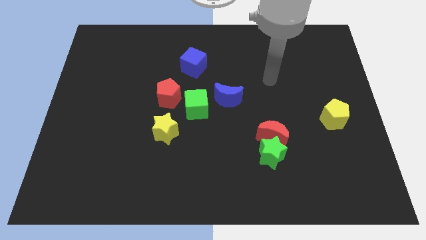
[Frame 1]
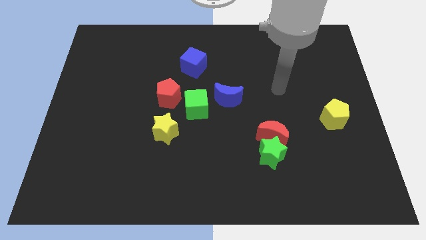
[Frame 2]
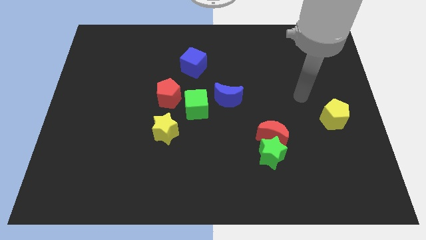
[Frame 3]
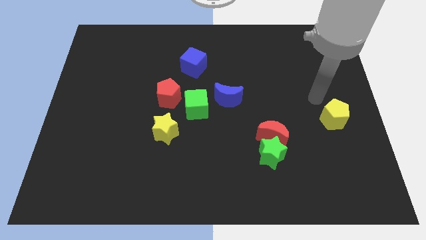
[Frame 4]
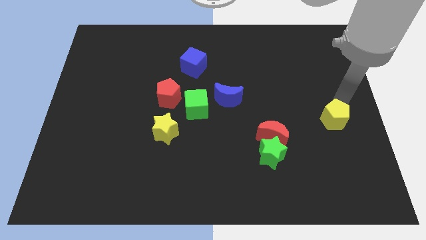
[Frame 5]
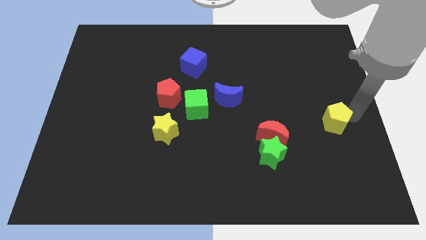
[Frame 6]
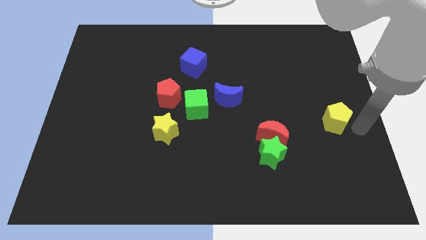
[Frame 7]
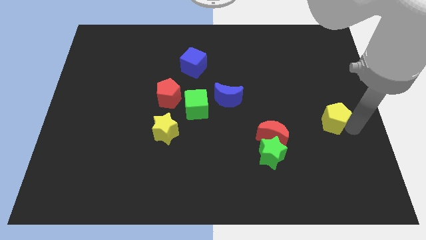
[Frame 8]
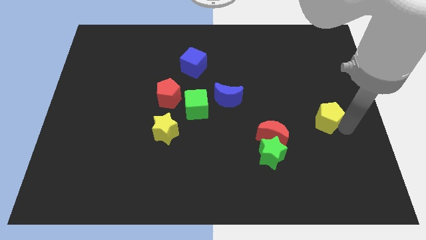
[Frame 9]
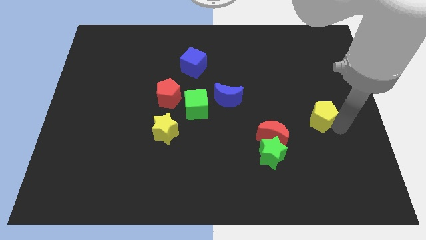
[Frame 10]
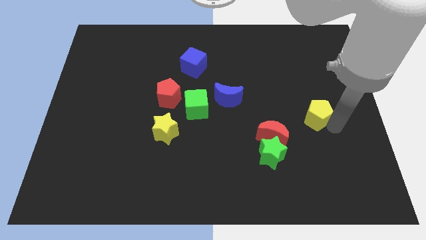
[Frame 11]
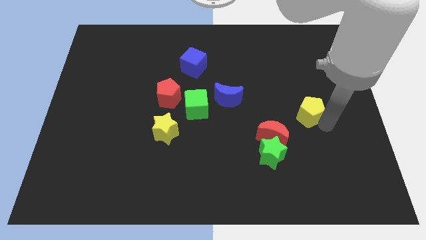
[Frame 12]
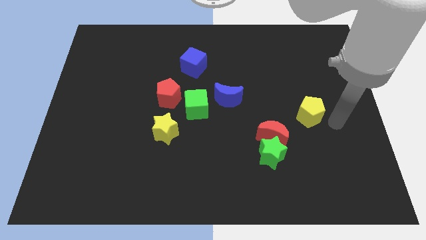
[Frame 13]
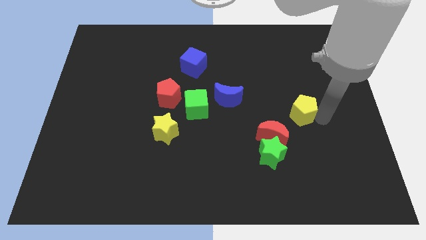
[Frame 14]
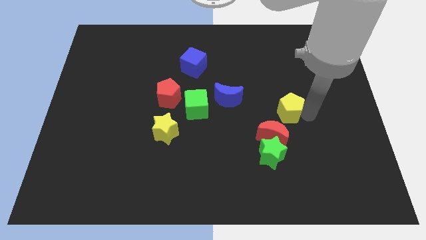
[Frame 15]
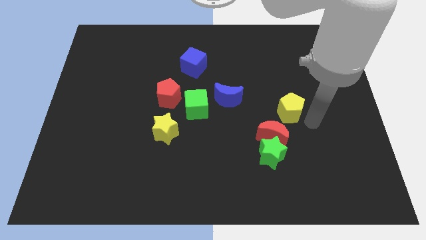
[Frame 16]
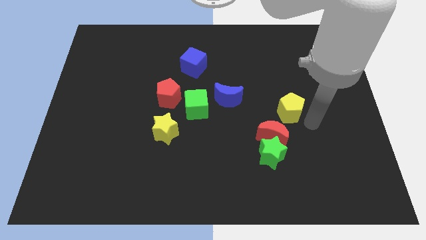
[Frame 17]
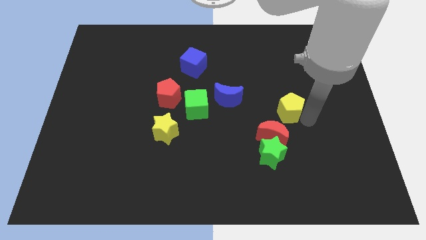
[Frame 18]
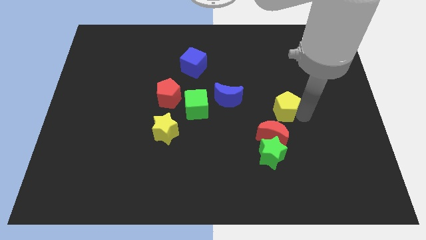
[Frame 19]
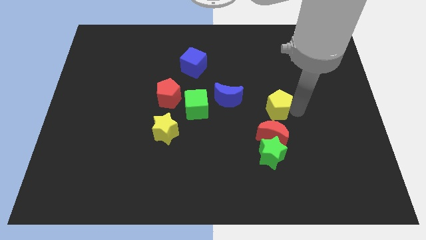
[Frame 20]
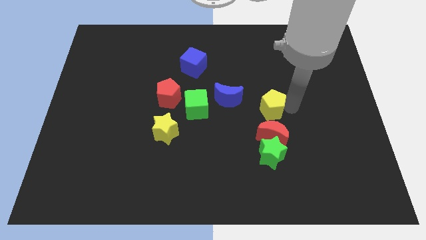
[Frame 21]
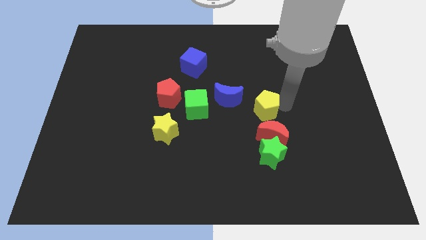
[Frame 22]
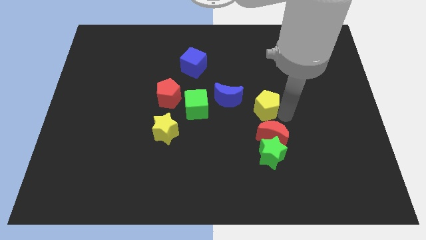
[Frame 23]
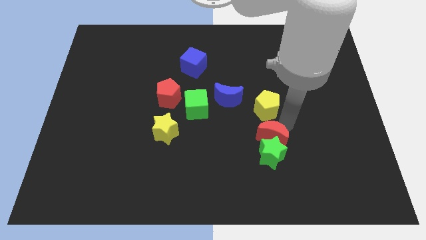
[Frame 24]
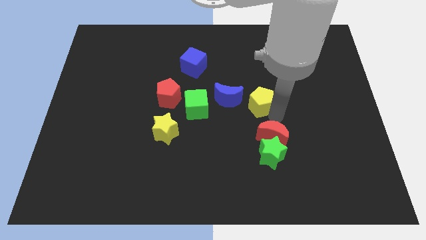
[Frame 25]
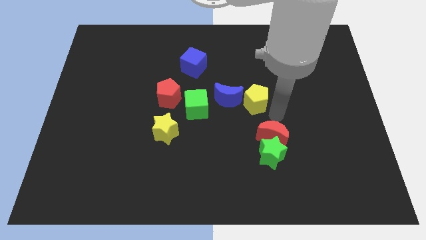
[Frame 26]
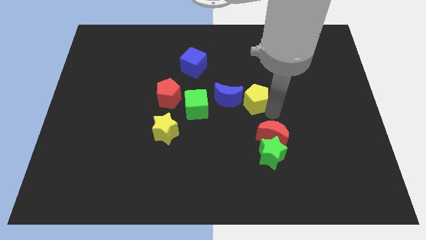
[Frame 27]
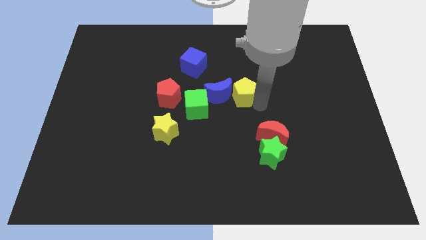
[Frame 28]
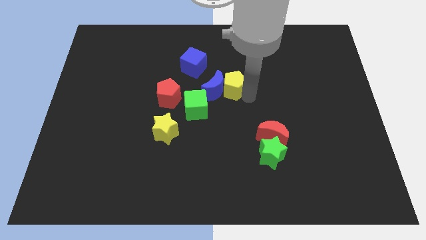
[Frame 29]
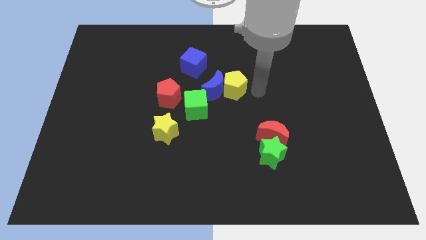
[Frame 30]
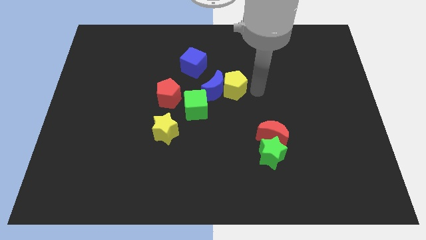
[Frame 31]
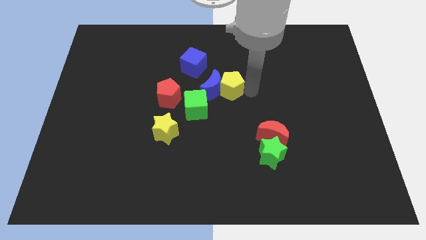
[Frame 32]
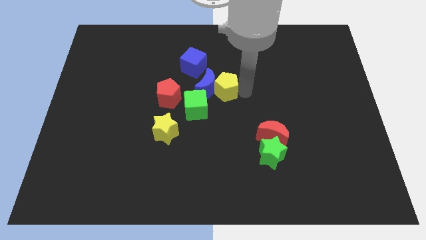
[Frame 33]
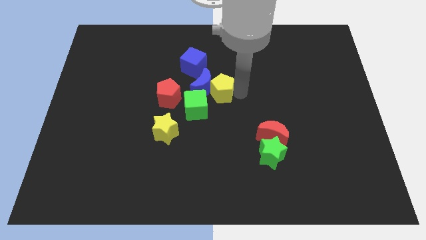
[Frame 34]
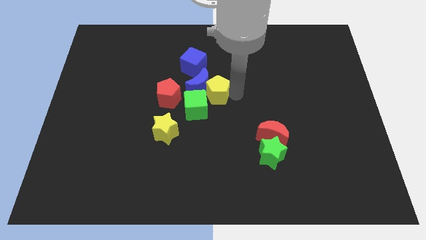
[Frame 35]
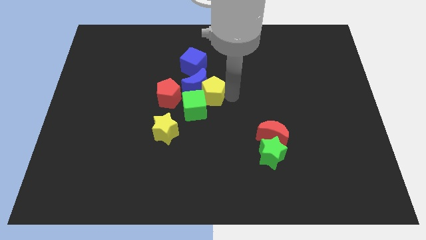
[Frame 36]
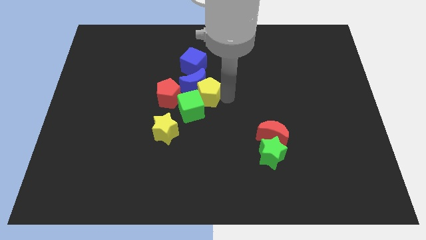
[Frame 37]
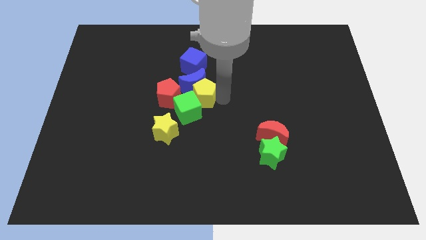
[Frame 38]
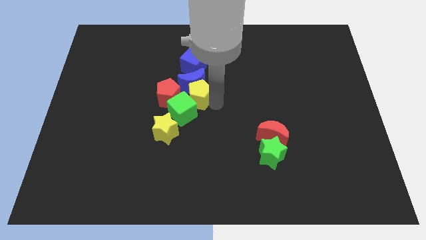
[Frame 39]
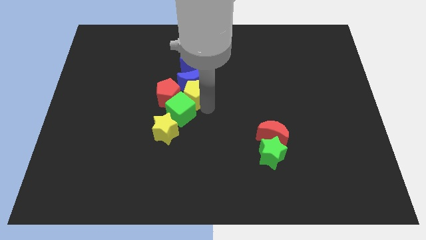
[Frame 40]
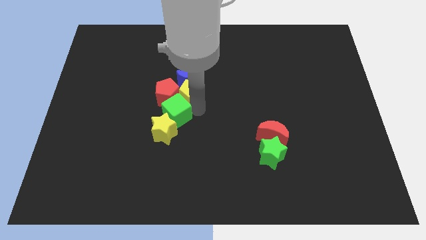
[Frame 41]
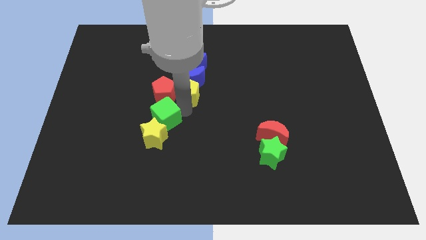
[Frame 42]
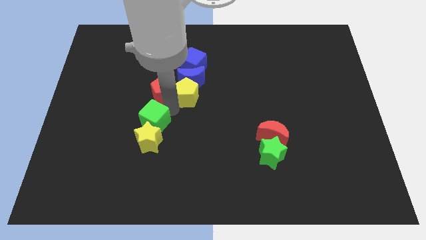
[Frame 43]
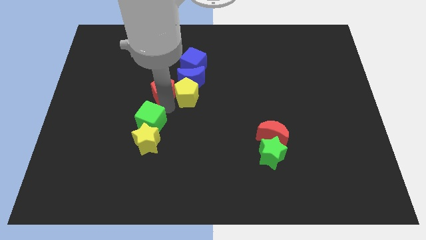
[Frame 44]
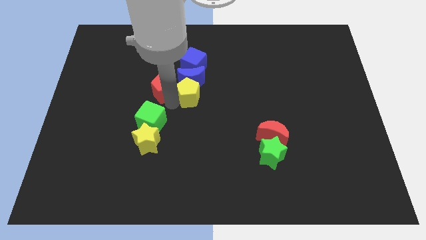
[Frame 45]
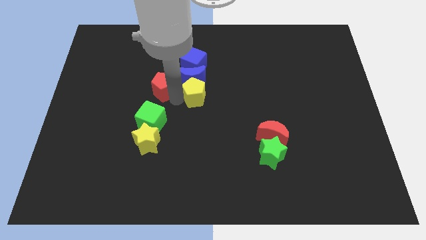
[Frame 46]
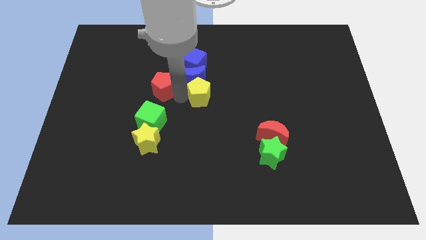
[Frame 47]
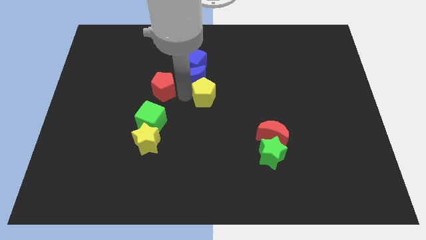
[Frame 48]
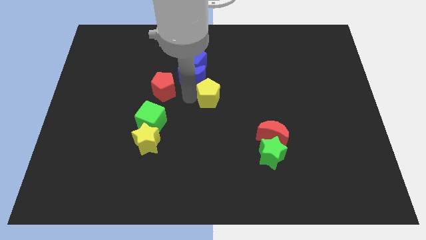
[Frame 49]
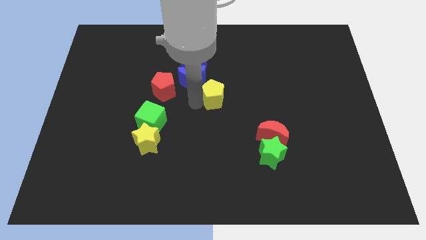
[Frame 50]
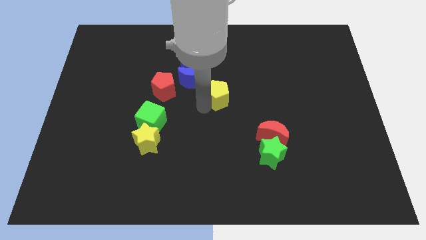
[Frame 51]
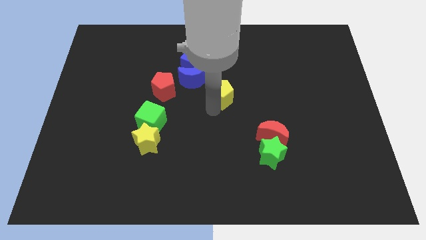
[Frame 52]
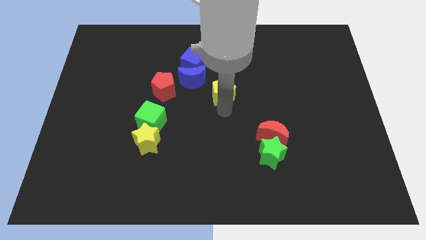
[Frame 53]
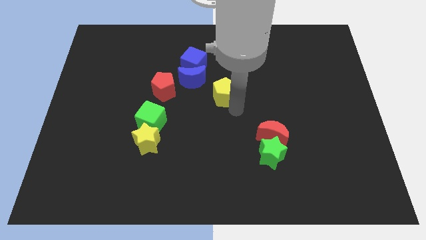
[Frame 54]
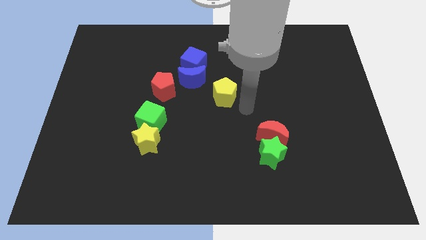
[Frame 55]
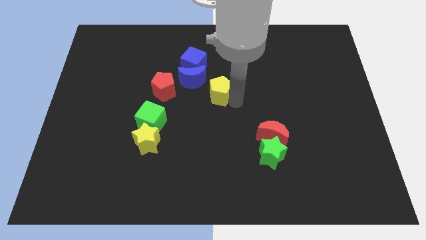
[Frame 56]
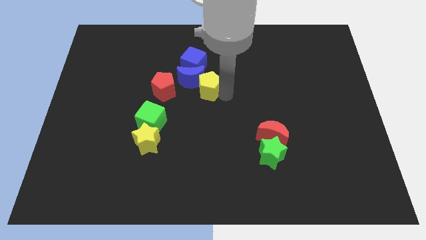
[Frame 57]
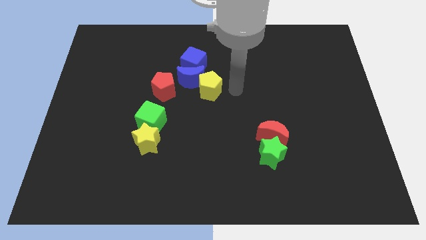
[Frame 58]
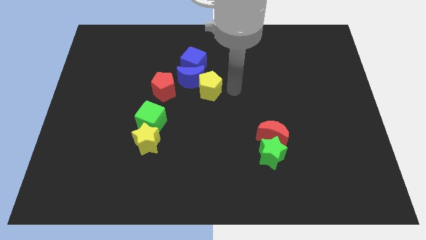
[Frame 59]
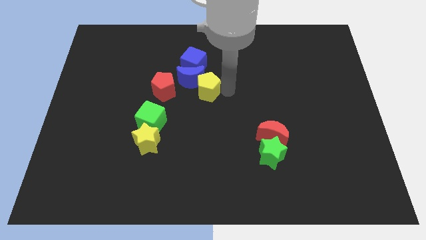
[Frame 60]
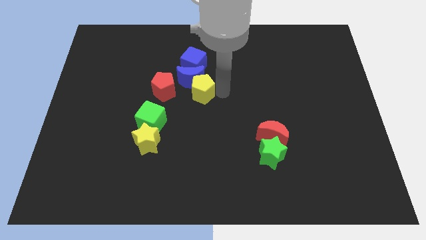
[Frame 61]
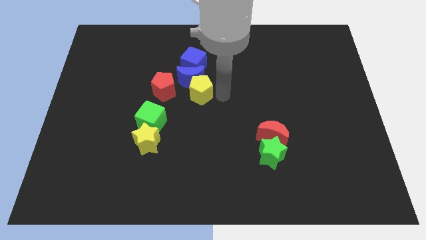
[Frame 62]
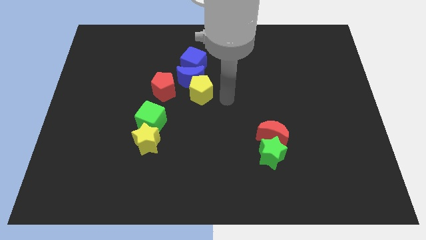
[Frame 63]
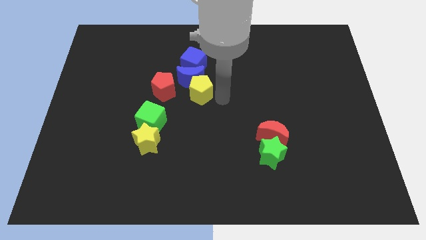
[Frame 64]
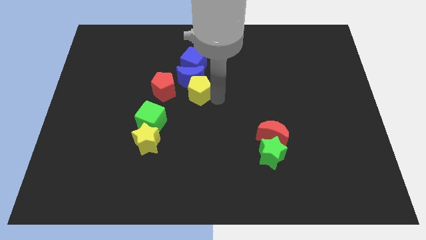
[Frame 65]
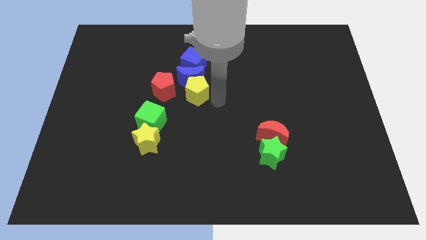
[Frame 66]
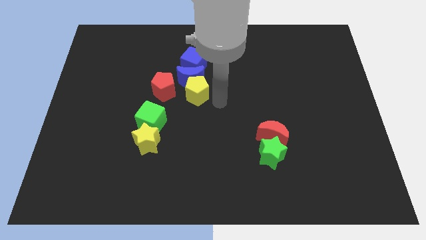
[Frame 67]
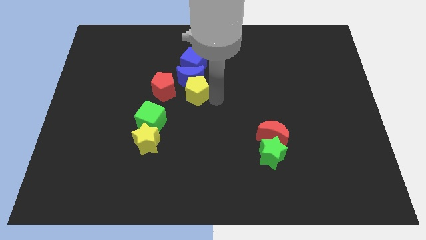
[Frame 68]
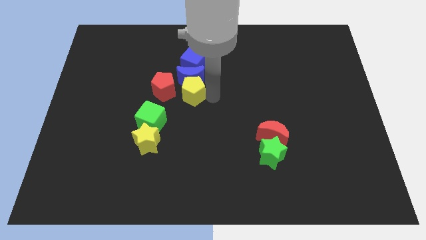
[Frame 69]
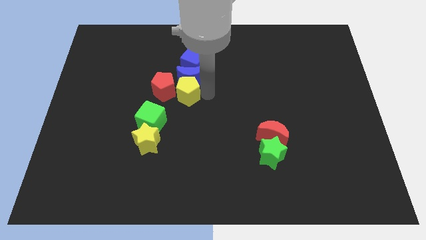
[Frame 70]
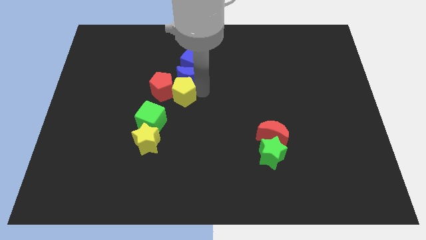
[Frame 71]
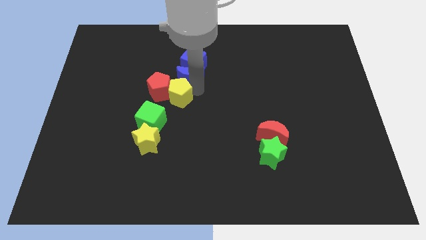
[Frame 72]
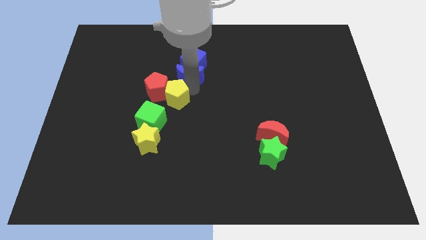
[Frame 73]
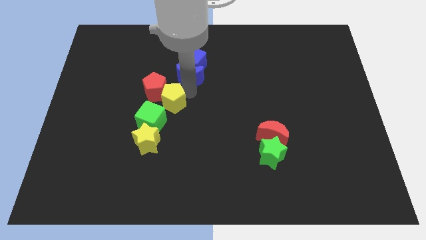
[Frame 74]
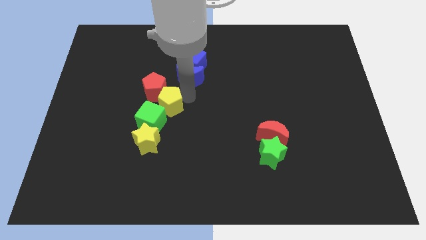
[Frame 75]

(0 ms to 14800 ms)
slide the yellow pentagon above the yellow star
